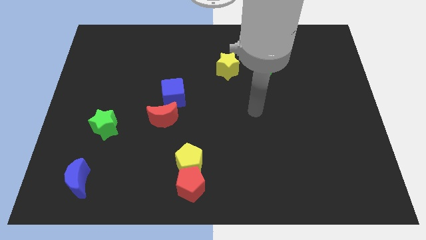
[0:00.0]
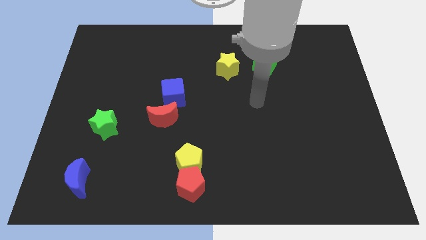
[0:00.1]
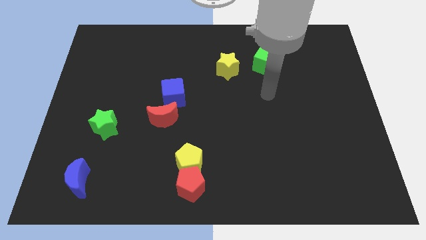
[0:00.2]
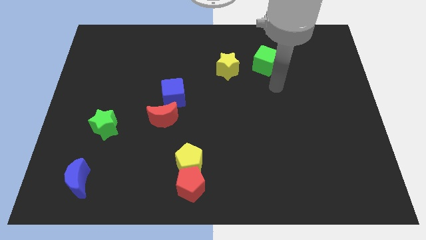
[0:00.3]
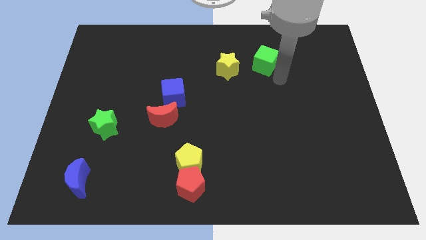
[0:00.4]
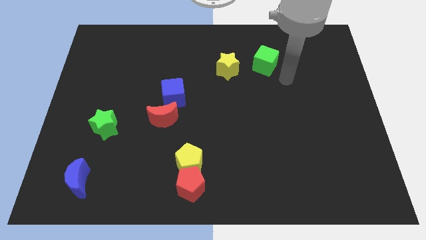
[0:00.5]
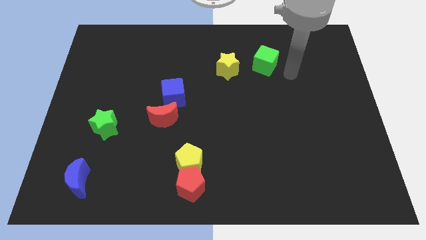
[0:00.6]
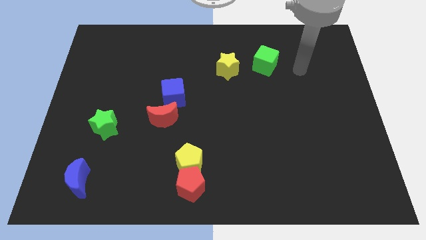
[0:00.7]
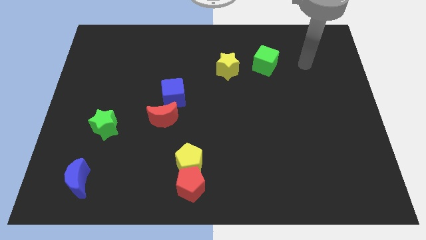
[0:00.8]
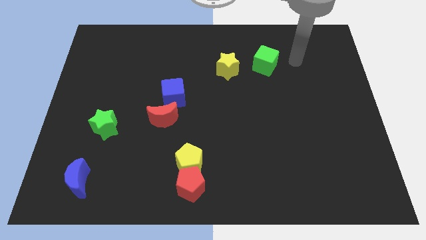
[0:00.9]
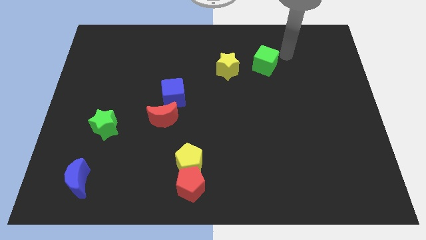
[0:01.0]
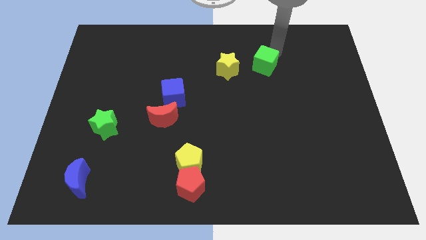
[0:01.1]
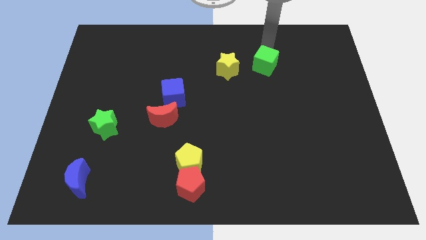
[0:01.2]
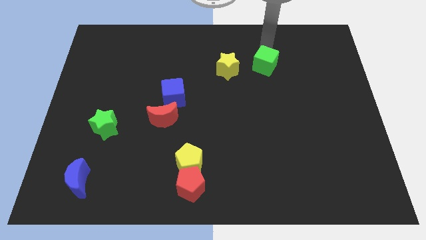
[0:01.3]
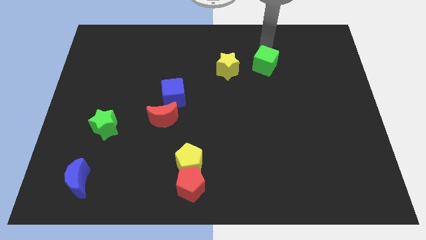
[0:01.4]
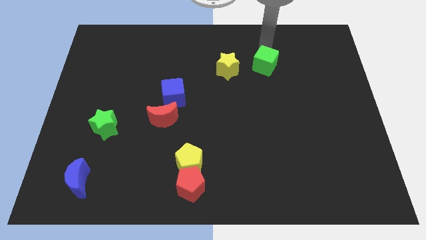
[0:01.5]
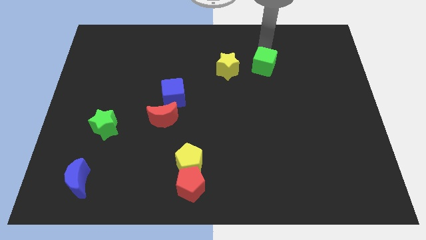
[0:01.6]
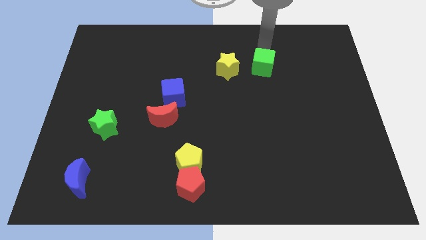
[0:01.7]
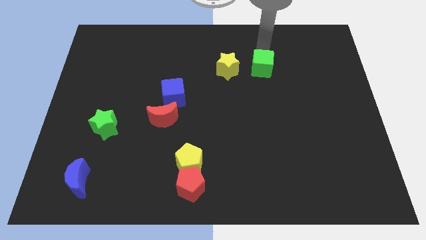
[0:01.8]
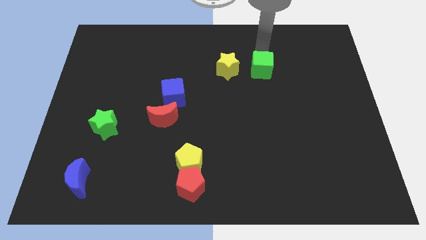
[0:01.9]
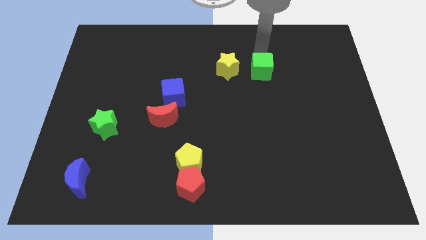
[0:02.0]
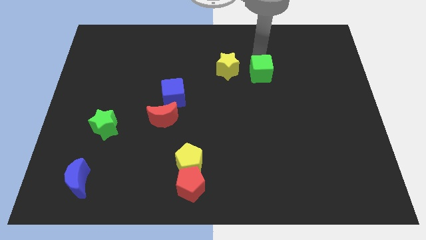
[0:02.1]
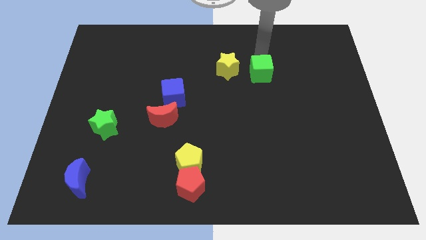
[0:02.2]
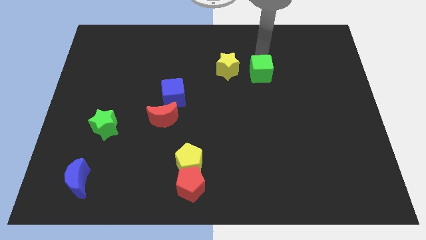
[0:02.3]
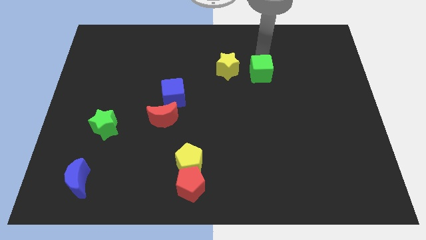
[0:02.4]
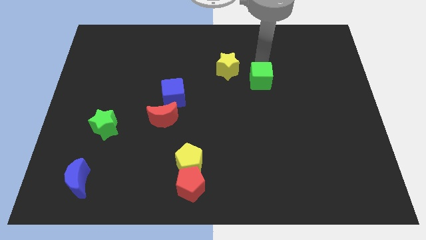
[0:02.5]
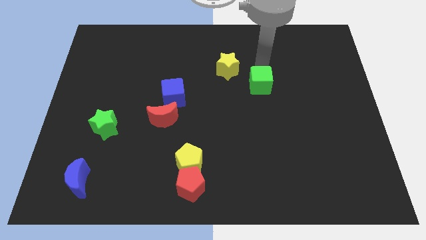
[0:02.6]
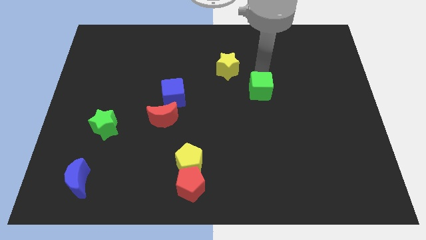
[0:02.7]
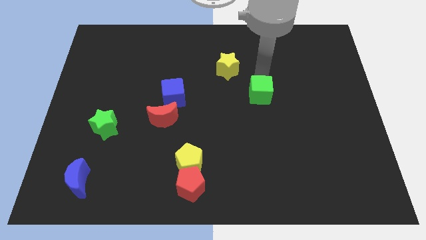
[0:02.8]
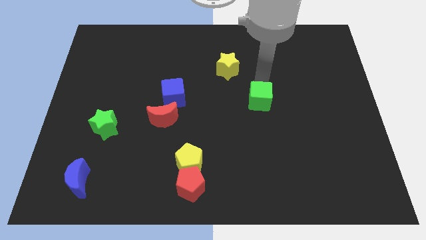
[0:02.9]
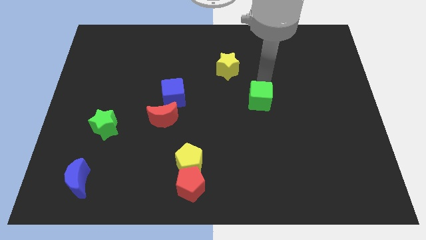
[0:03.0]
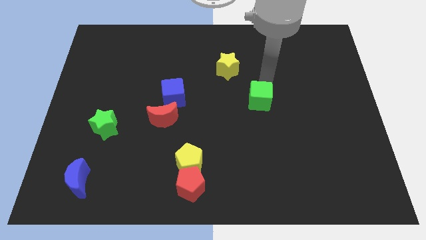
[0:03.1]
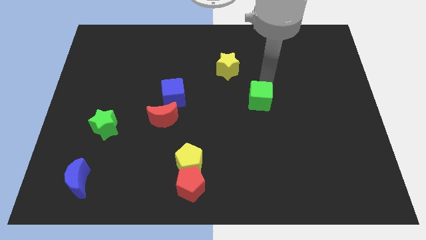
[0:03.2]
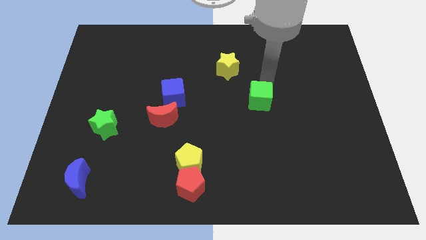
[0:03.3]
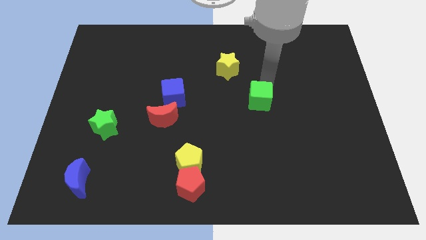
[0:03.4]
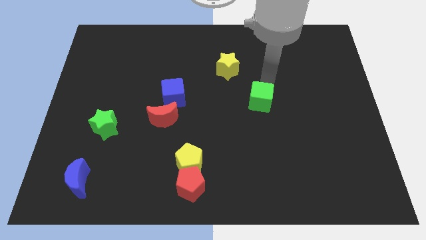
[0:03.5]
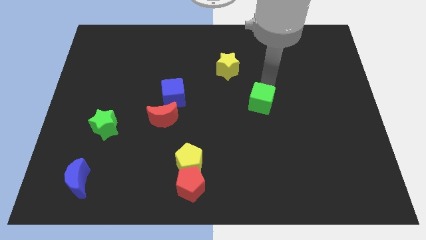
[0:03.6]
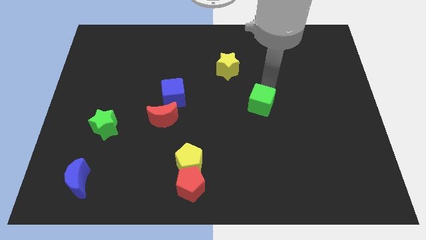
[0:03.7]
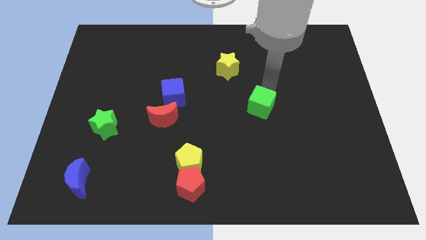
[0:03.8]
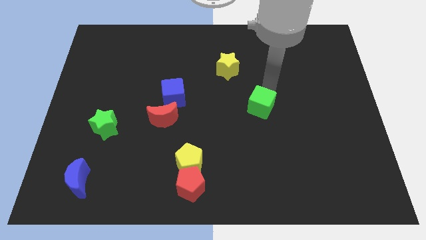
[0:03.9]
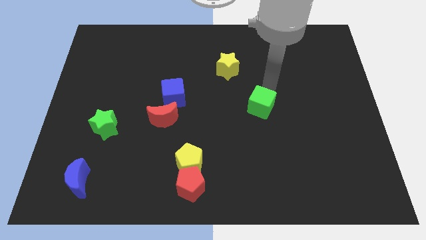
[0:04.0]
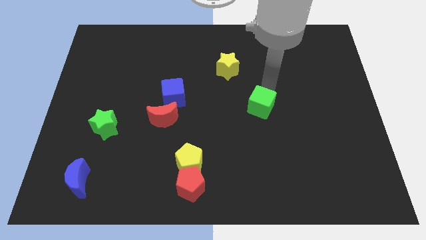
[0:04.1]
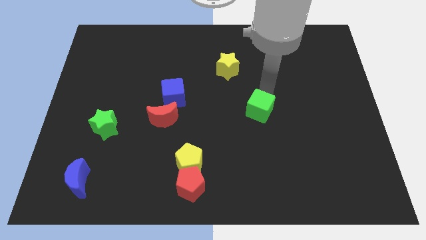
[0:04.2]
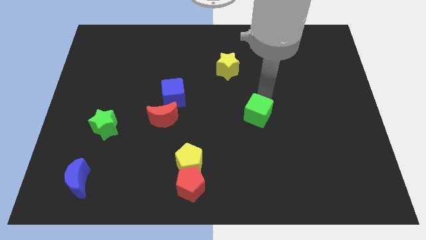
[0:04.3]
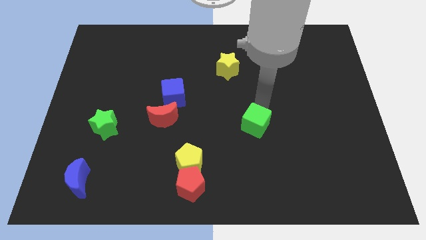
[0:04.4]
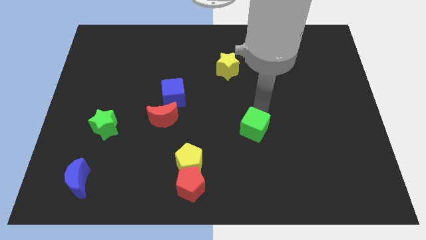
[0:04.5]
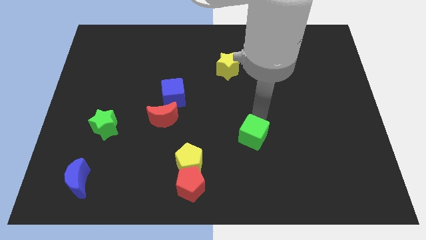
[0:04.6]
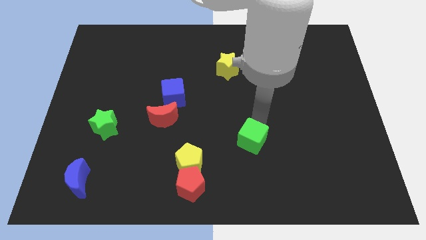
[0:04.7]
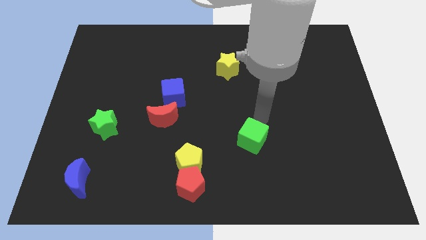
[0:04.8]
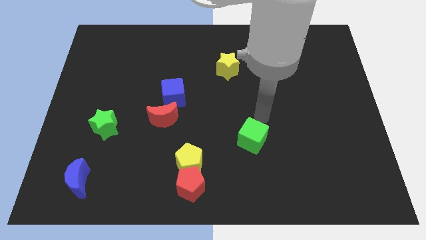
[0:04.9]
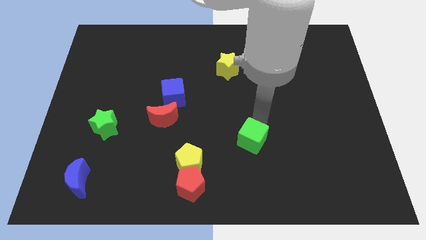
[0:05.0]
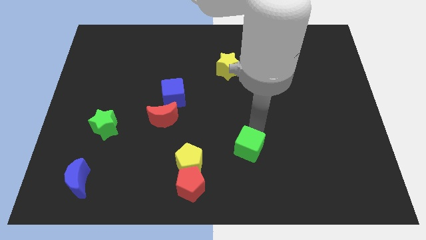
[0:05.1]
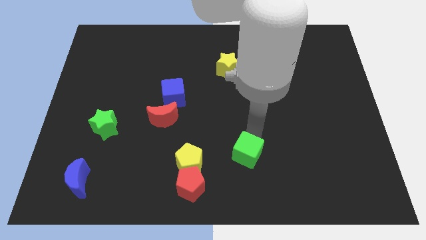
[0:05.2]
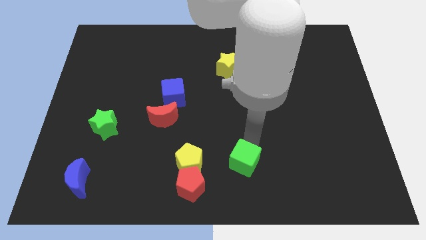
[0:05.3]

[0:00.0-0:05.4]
slide the green cube to the bottom side
